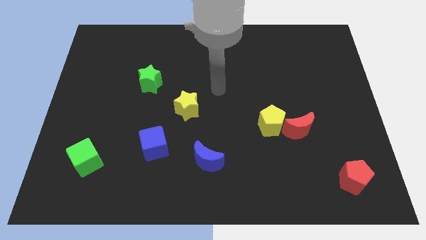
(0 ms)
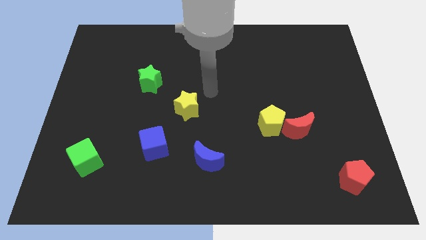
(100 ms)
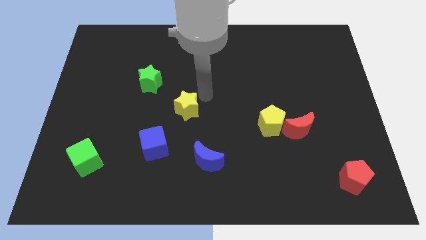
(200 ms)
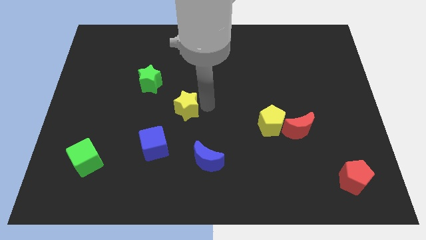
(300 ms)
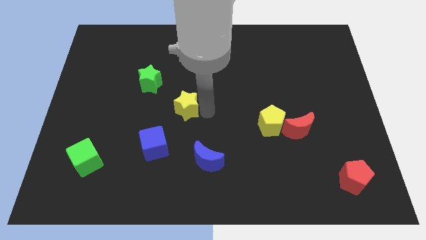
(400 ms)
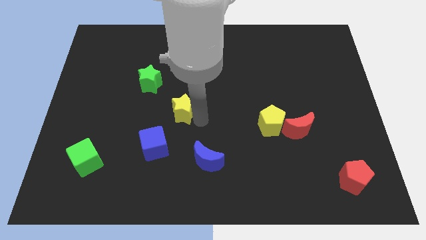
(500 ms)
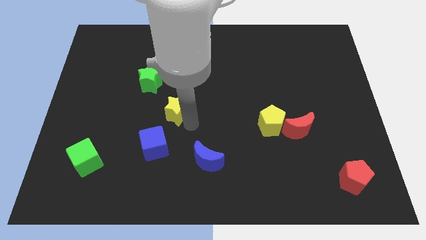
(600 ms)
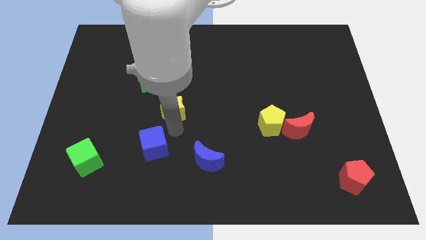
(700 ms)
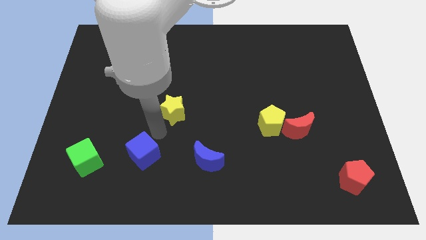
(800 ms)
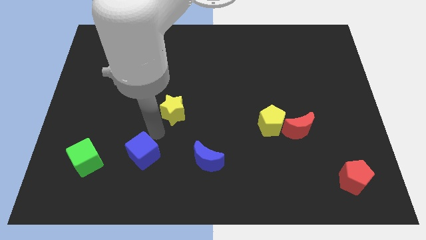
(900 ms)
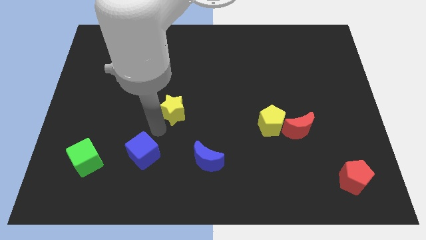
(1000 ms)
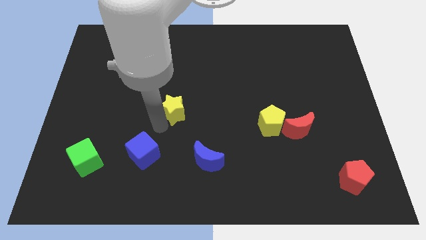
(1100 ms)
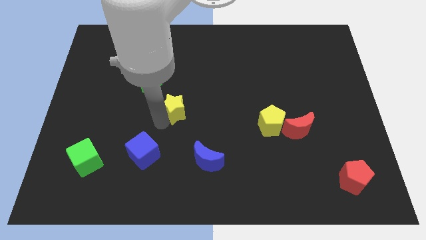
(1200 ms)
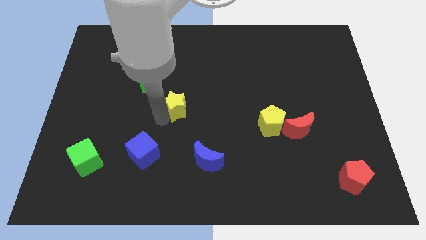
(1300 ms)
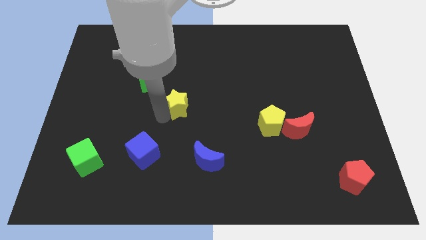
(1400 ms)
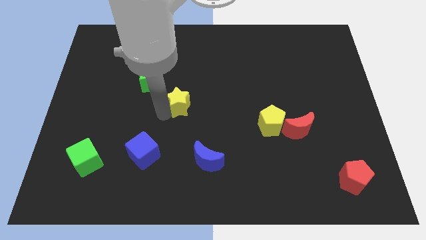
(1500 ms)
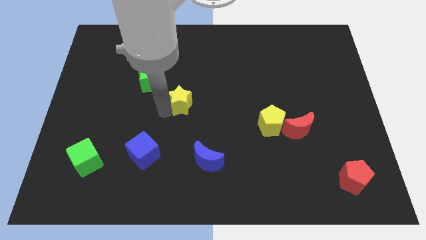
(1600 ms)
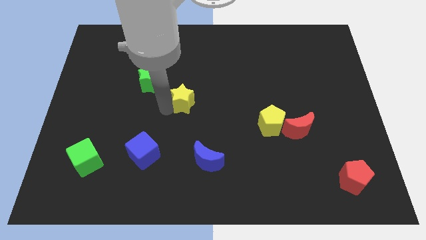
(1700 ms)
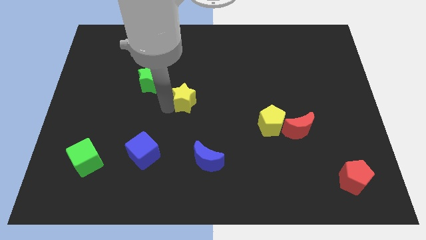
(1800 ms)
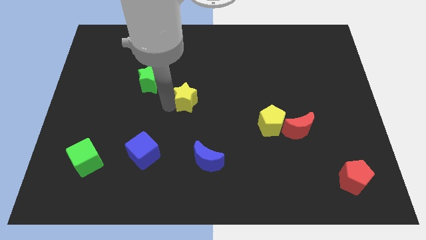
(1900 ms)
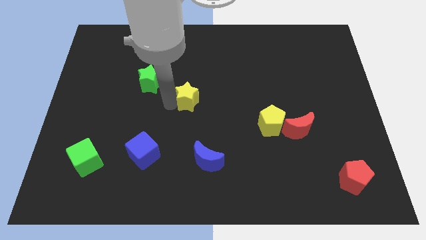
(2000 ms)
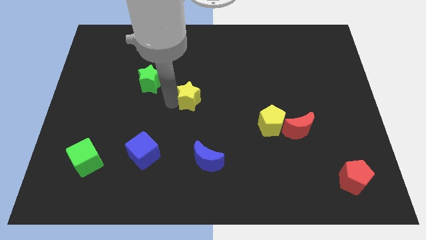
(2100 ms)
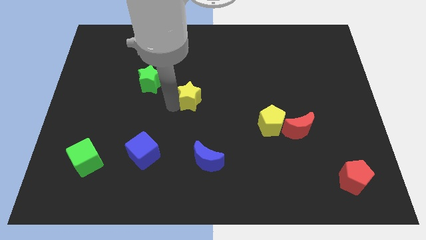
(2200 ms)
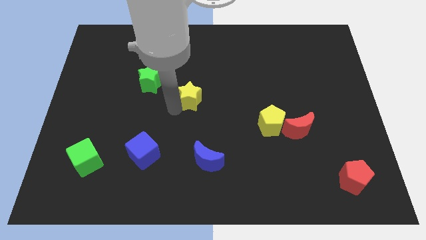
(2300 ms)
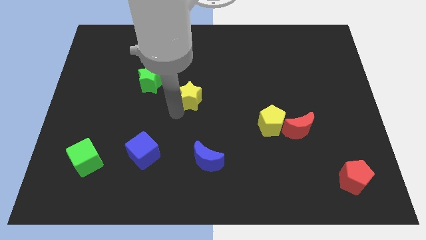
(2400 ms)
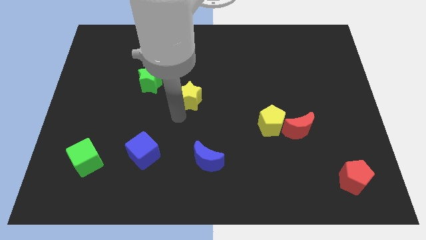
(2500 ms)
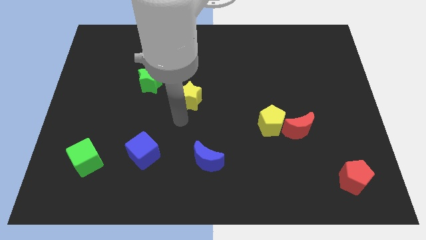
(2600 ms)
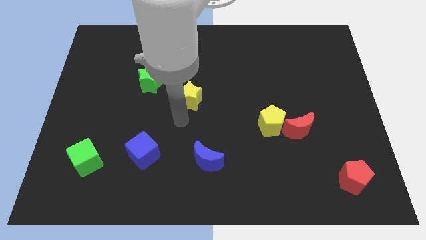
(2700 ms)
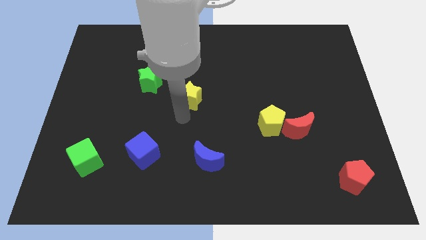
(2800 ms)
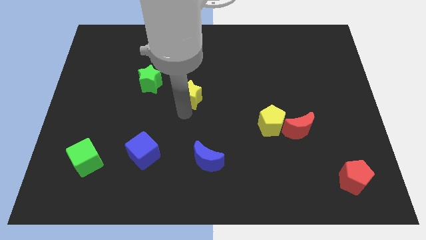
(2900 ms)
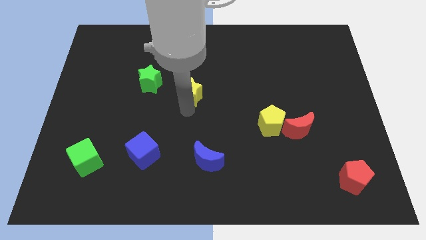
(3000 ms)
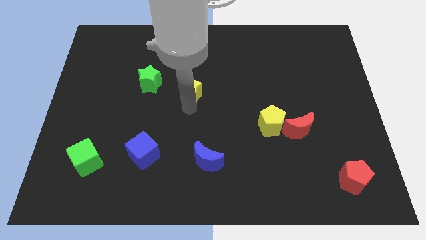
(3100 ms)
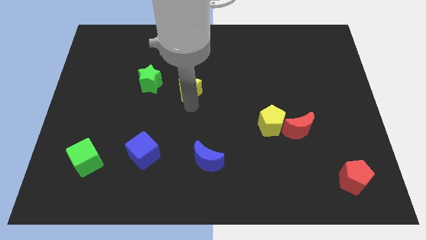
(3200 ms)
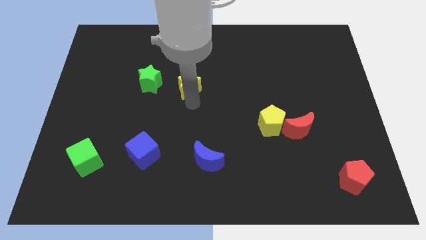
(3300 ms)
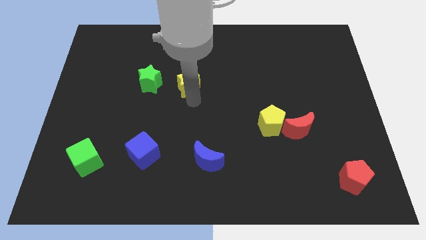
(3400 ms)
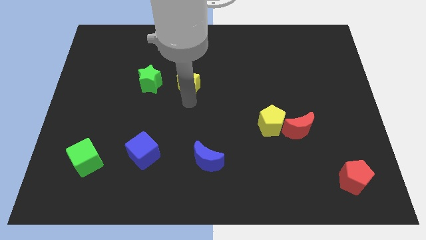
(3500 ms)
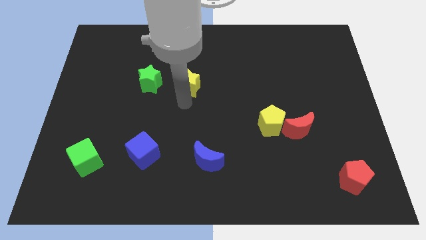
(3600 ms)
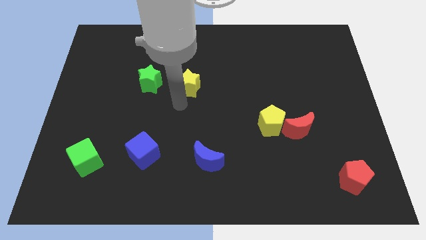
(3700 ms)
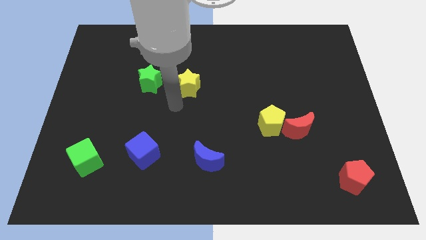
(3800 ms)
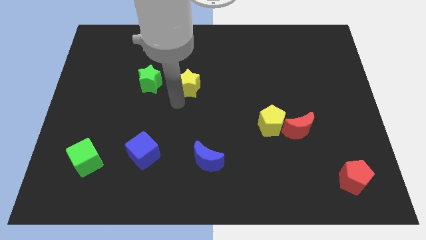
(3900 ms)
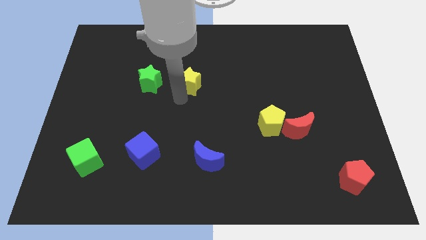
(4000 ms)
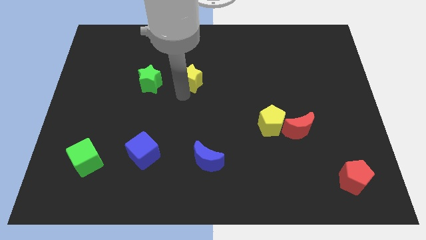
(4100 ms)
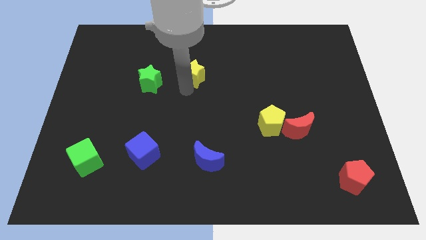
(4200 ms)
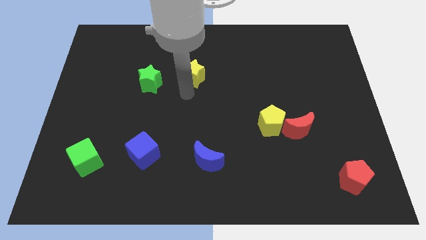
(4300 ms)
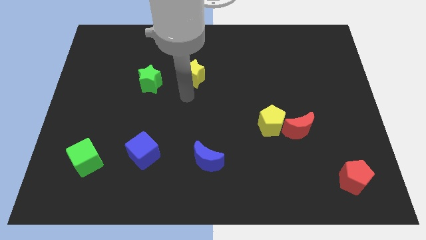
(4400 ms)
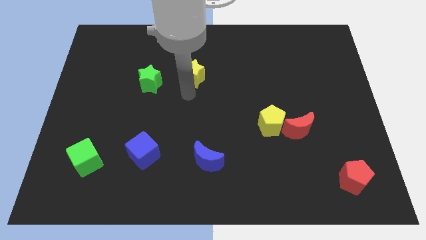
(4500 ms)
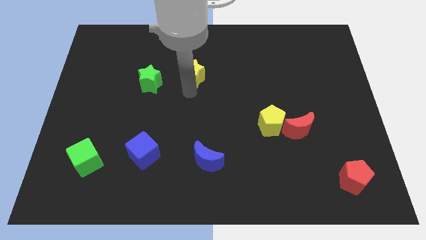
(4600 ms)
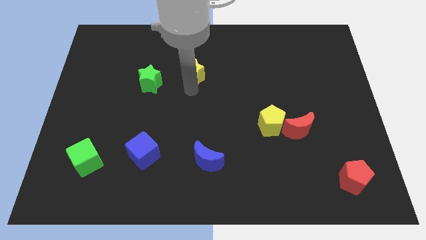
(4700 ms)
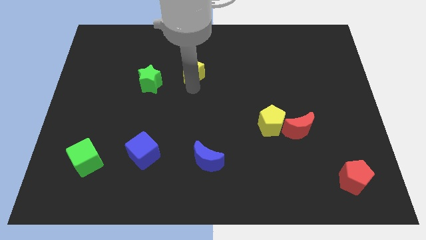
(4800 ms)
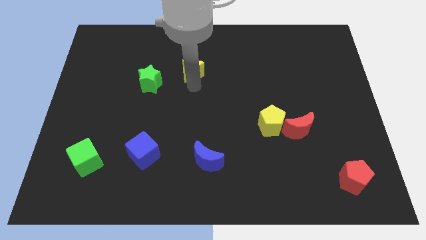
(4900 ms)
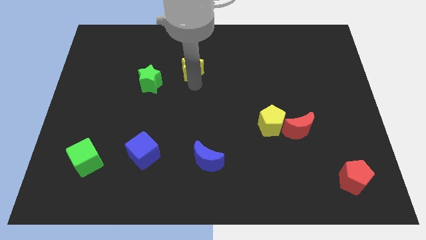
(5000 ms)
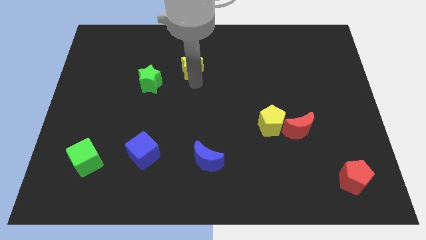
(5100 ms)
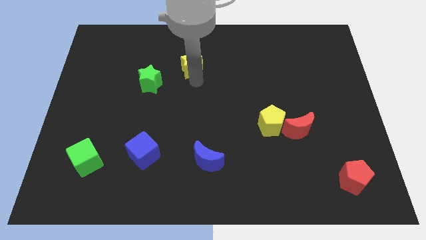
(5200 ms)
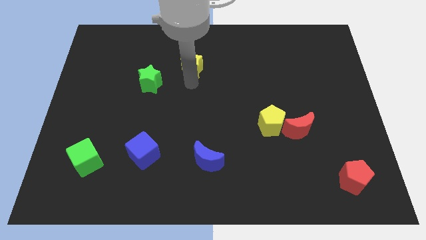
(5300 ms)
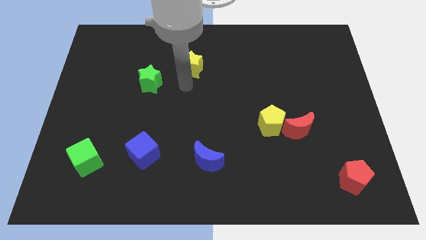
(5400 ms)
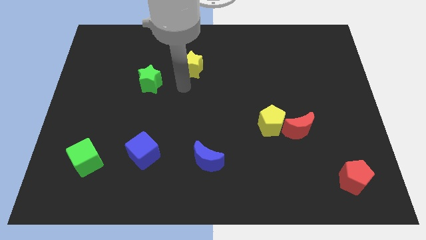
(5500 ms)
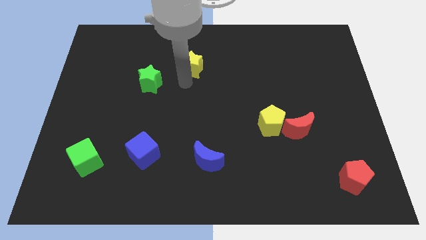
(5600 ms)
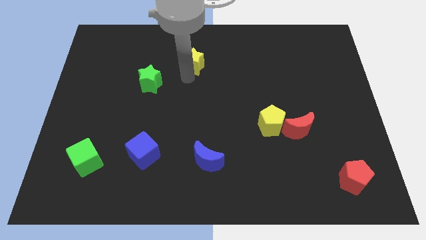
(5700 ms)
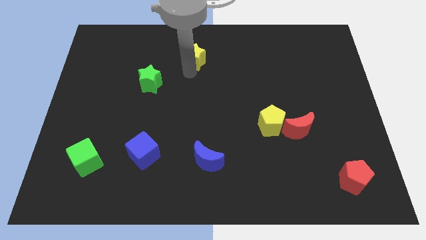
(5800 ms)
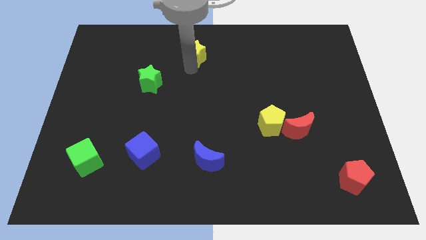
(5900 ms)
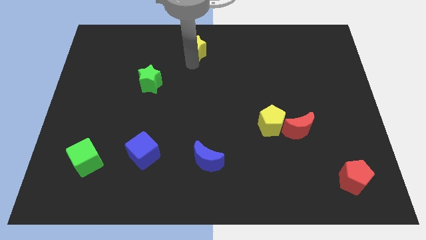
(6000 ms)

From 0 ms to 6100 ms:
push the yellow star to the top side

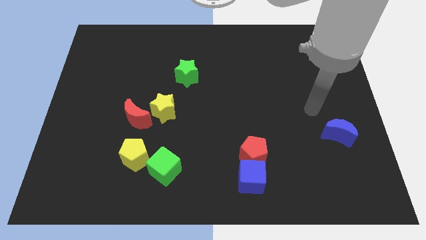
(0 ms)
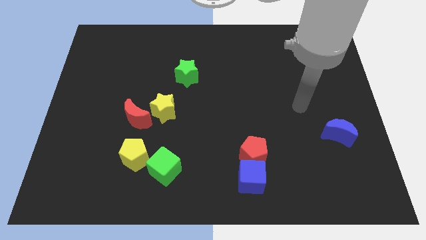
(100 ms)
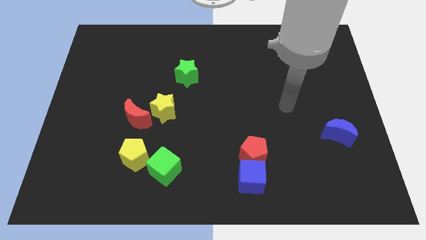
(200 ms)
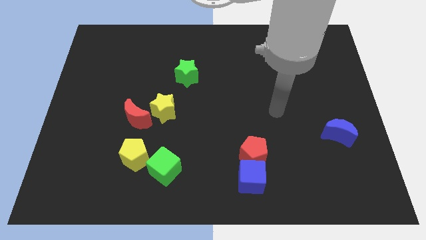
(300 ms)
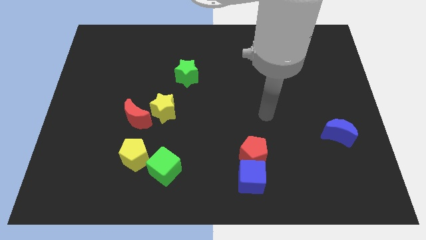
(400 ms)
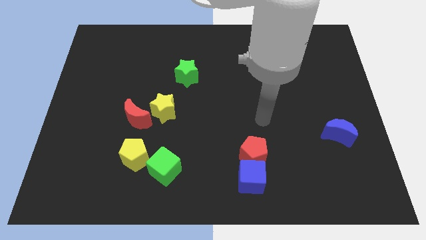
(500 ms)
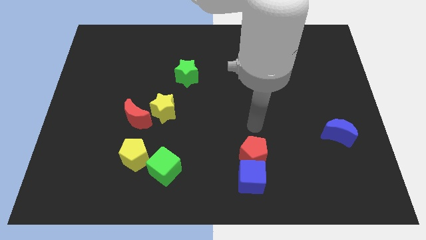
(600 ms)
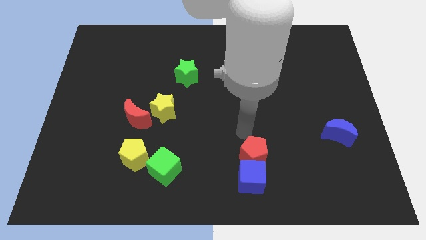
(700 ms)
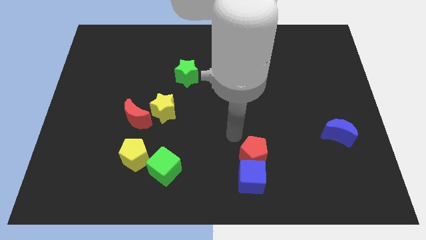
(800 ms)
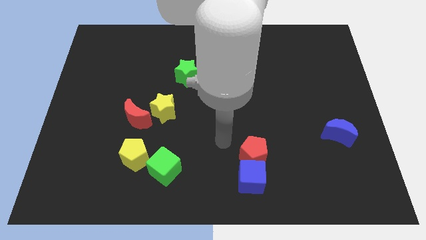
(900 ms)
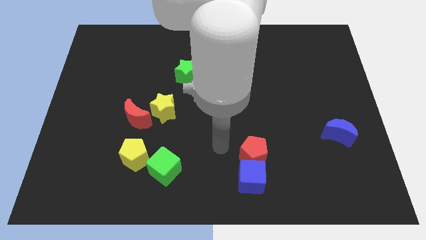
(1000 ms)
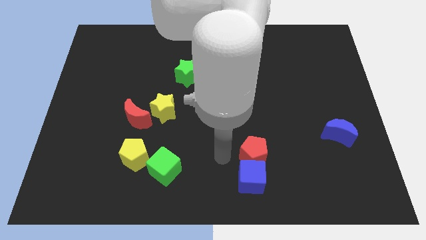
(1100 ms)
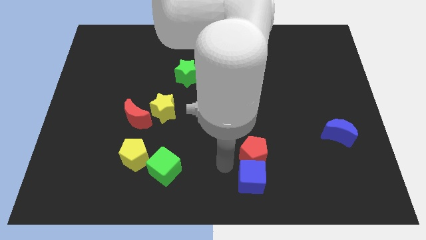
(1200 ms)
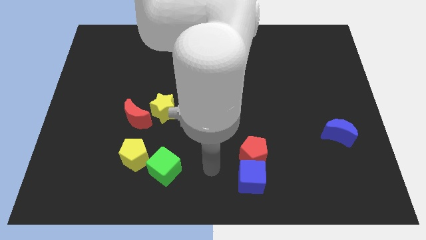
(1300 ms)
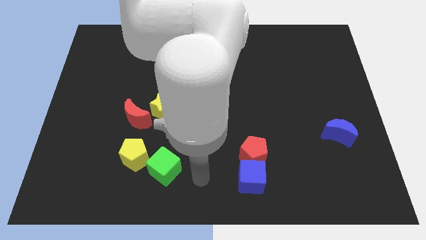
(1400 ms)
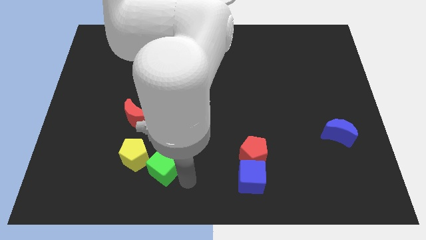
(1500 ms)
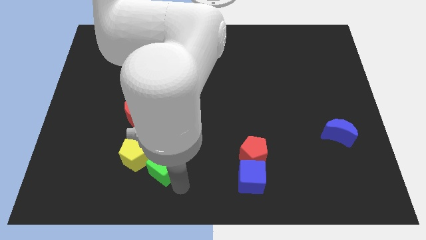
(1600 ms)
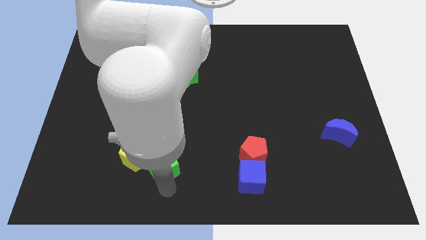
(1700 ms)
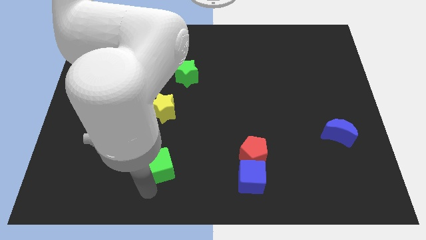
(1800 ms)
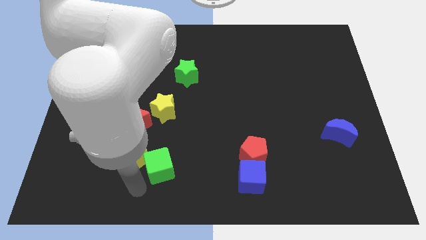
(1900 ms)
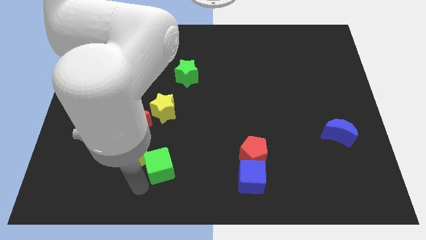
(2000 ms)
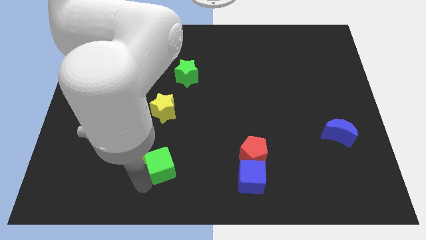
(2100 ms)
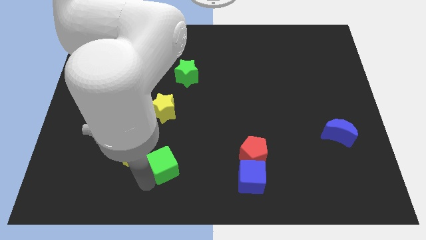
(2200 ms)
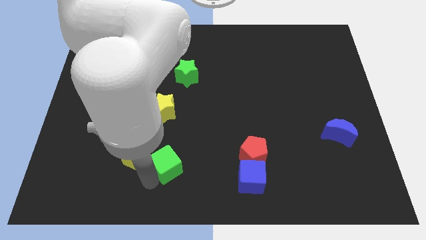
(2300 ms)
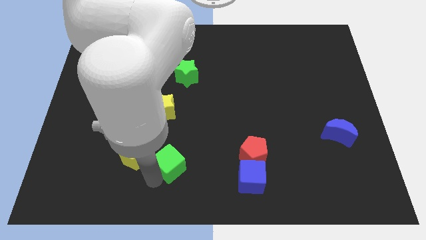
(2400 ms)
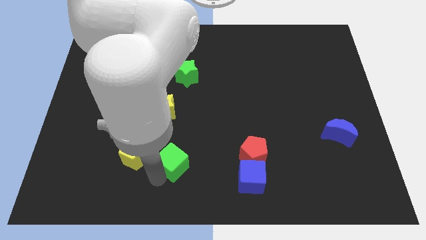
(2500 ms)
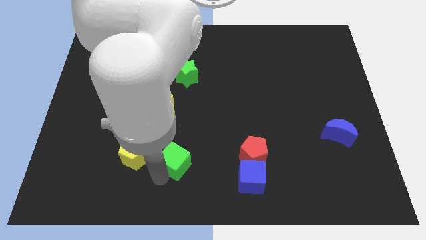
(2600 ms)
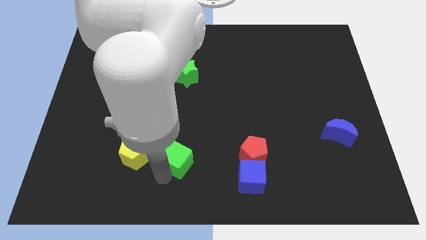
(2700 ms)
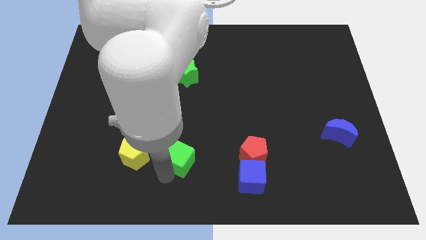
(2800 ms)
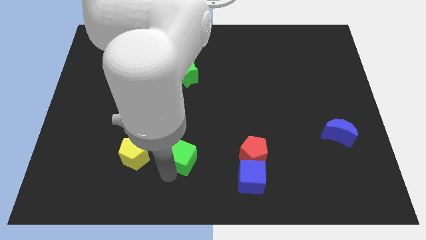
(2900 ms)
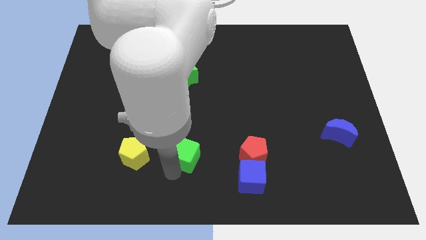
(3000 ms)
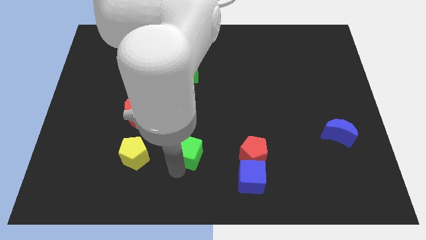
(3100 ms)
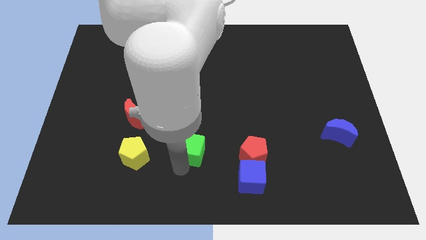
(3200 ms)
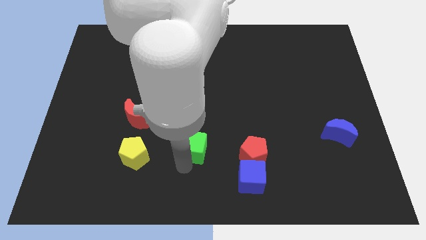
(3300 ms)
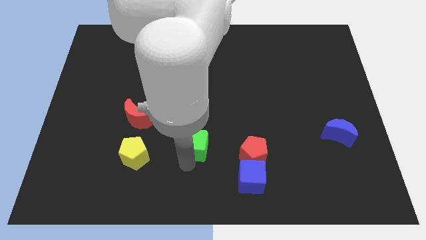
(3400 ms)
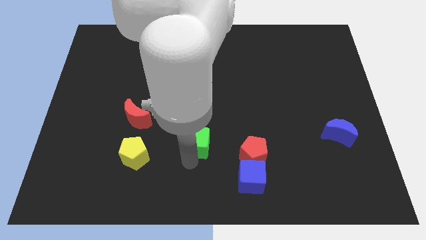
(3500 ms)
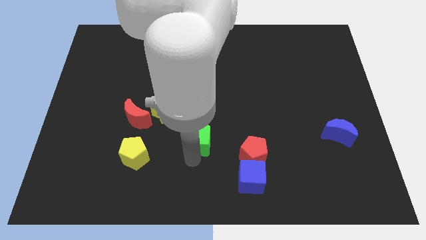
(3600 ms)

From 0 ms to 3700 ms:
slide the green cube to the middle
